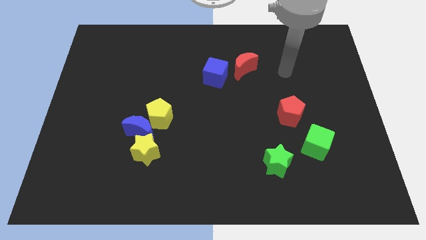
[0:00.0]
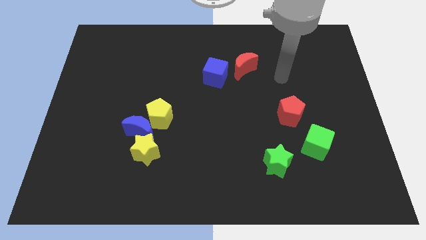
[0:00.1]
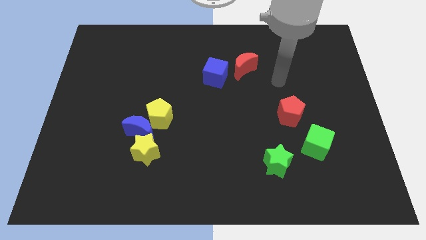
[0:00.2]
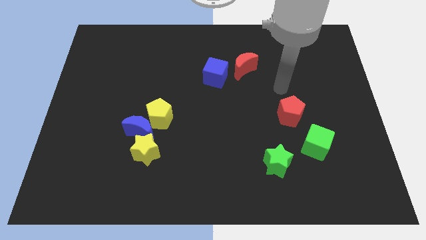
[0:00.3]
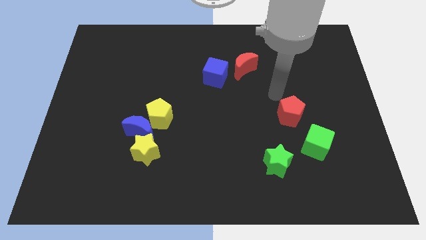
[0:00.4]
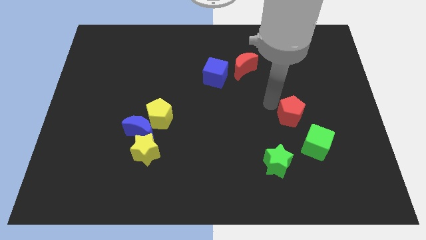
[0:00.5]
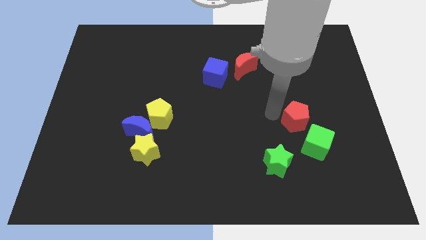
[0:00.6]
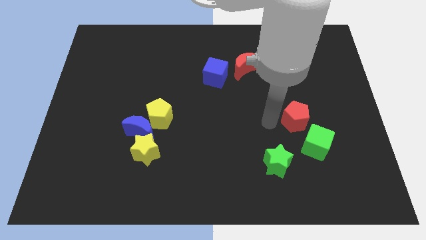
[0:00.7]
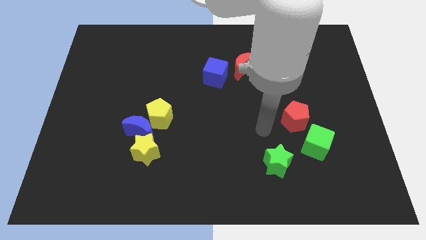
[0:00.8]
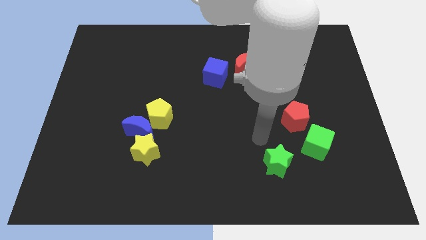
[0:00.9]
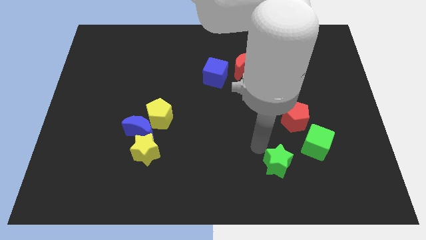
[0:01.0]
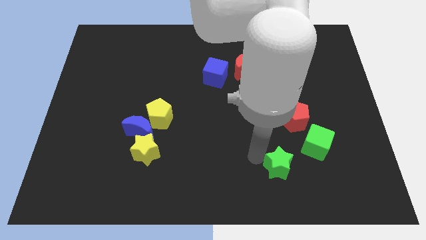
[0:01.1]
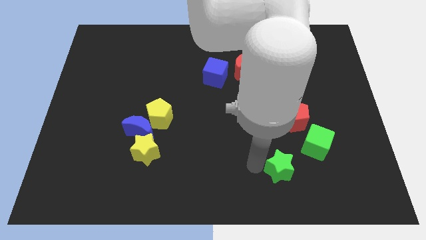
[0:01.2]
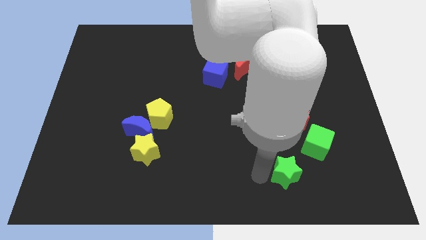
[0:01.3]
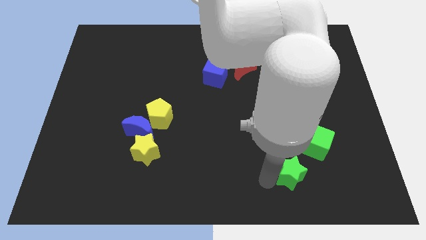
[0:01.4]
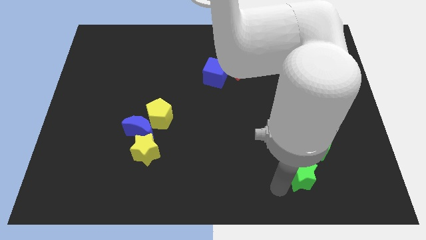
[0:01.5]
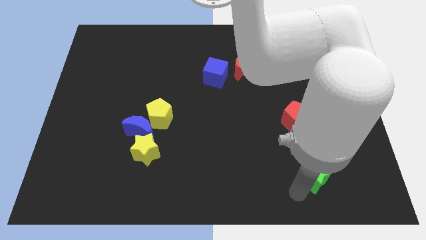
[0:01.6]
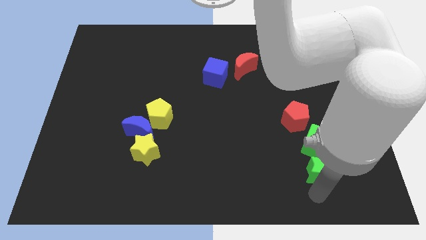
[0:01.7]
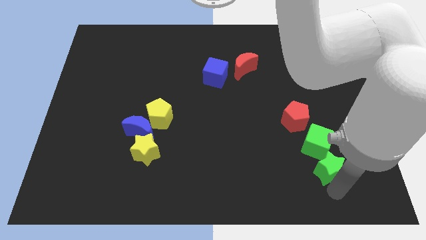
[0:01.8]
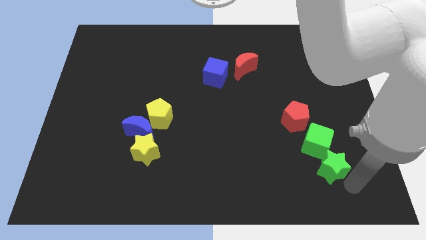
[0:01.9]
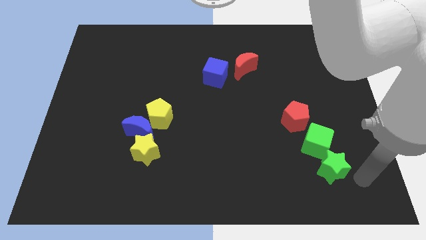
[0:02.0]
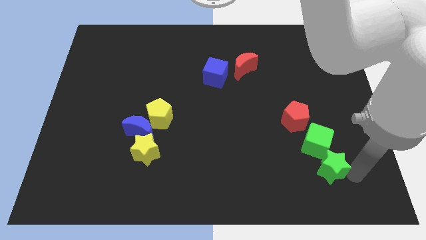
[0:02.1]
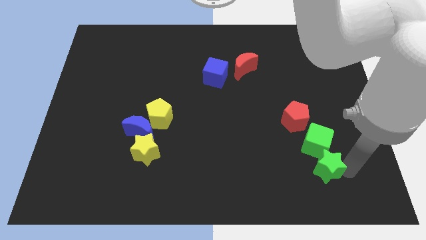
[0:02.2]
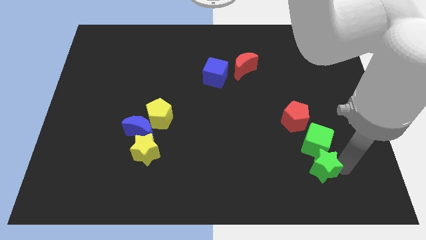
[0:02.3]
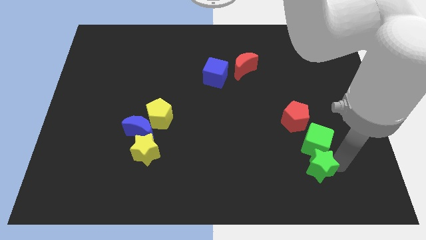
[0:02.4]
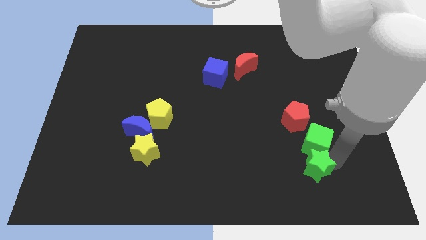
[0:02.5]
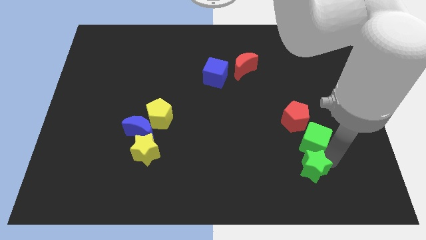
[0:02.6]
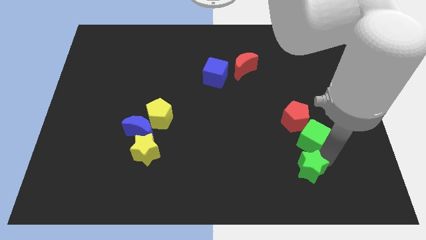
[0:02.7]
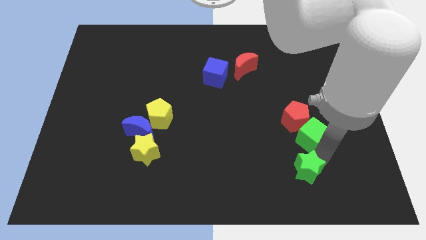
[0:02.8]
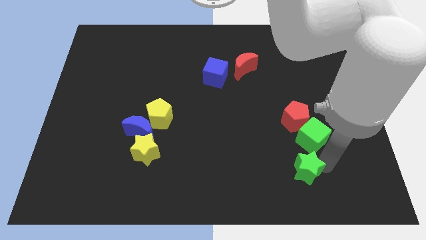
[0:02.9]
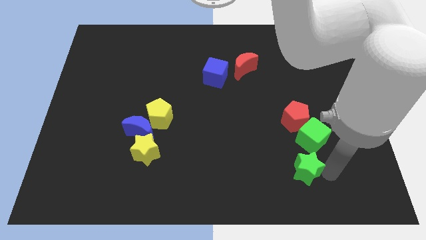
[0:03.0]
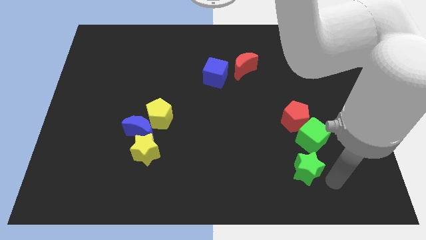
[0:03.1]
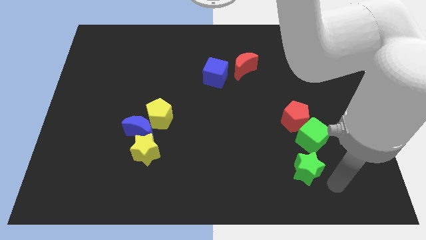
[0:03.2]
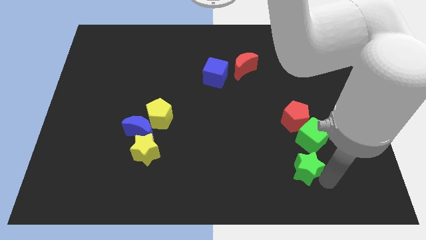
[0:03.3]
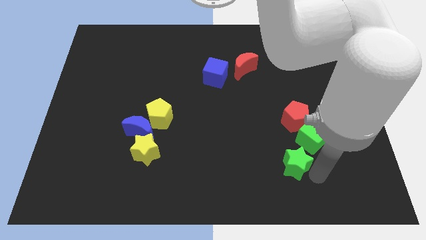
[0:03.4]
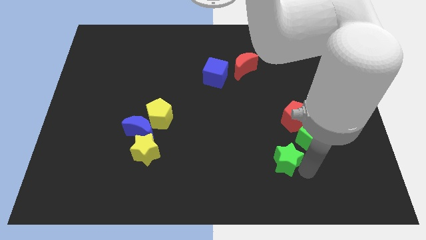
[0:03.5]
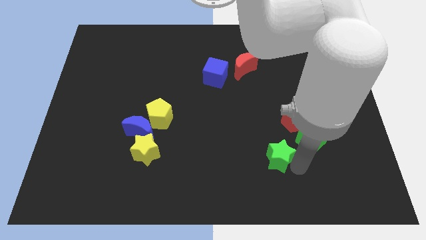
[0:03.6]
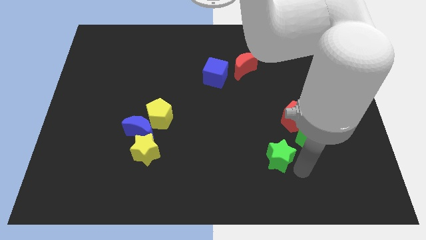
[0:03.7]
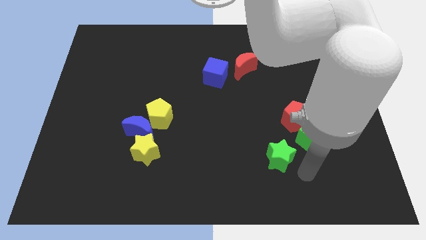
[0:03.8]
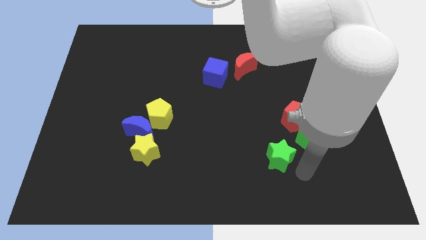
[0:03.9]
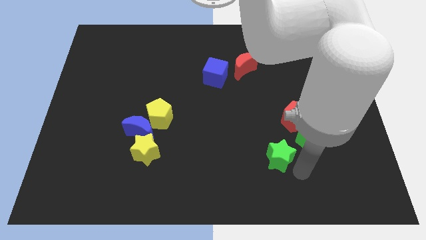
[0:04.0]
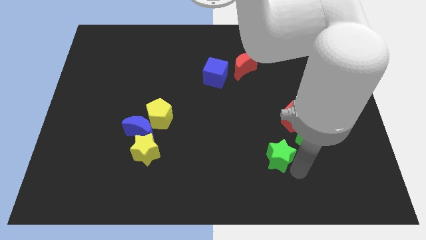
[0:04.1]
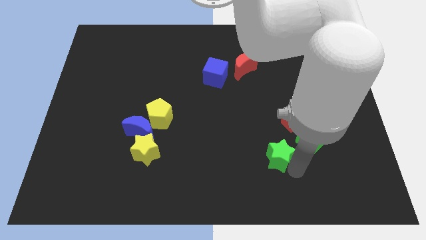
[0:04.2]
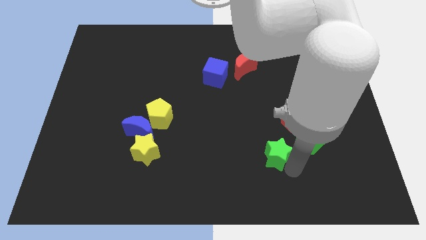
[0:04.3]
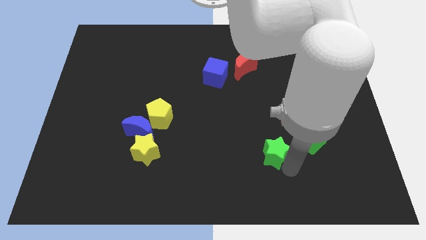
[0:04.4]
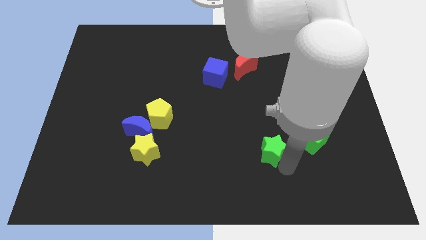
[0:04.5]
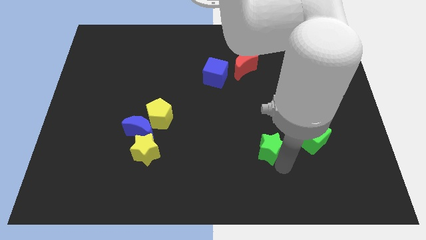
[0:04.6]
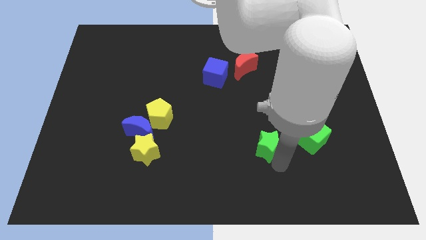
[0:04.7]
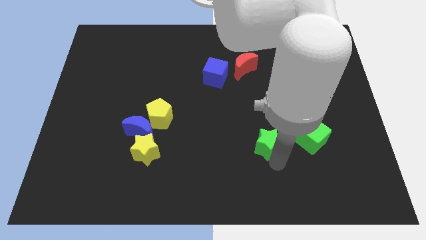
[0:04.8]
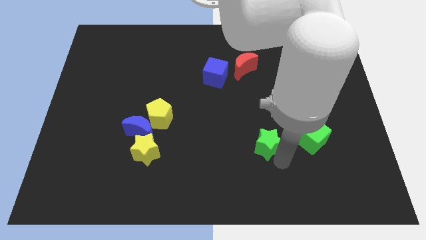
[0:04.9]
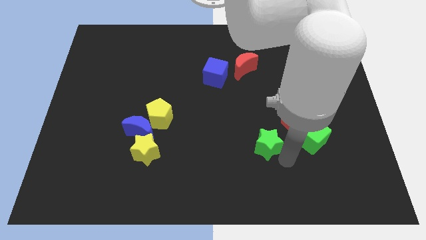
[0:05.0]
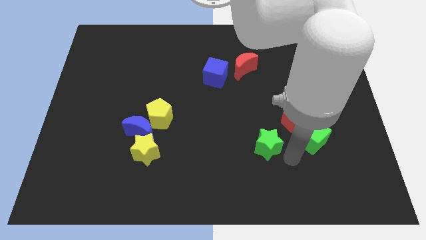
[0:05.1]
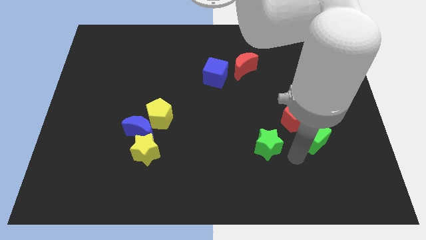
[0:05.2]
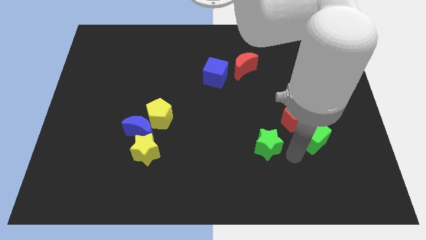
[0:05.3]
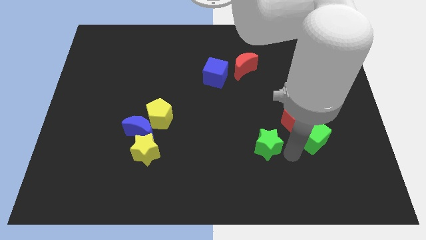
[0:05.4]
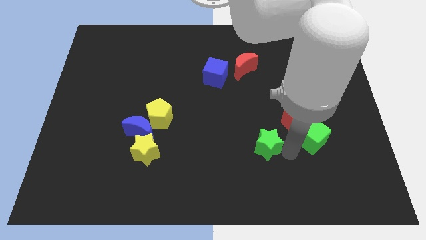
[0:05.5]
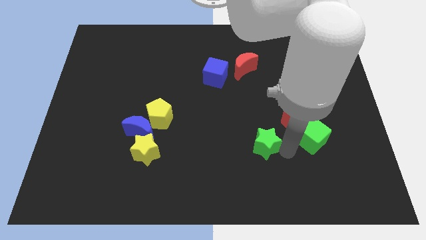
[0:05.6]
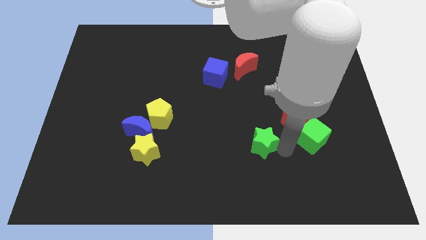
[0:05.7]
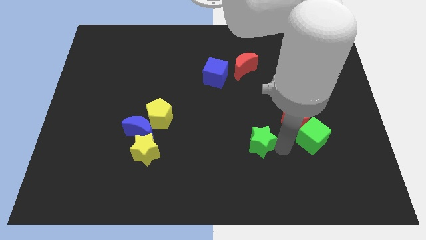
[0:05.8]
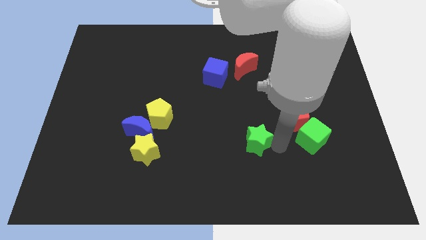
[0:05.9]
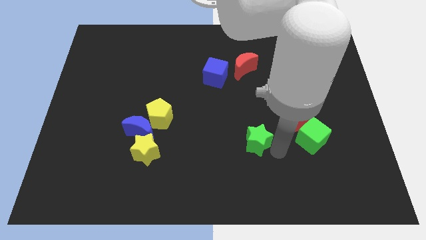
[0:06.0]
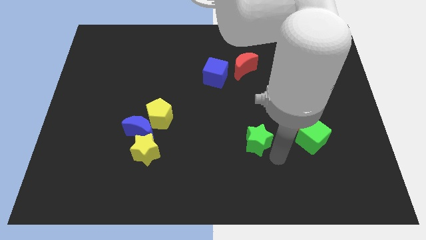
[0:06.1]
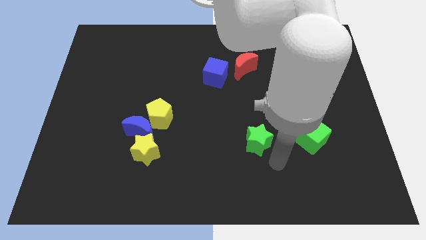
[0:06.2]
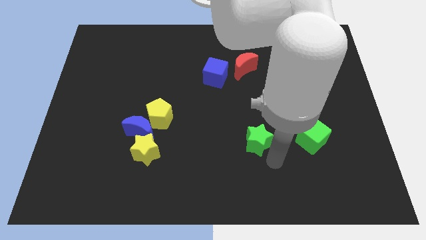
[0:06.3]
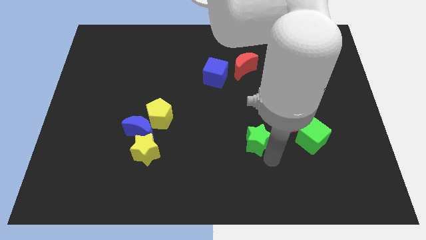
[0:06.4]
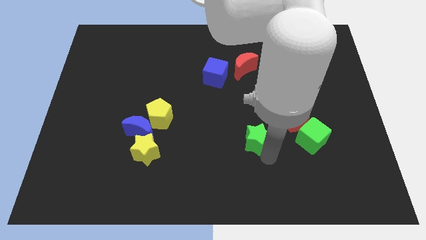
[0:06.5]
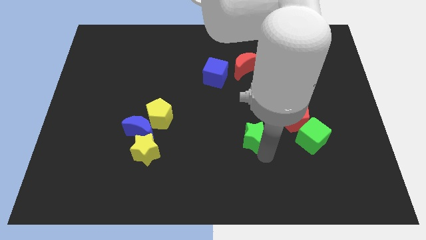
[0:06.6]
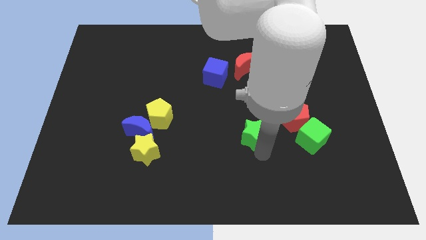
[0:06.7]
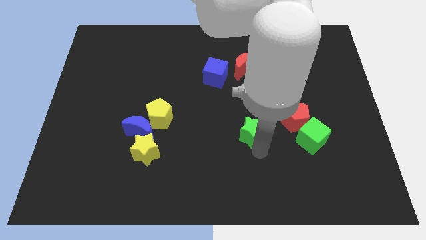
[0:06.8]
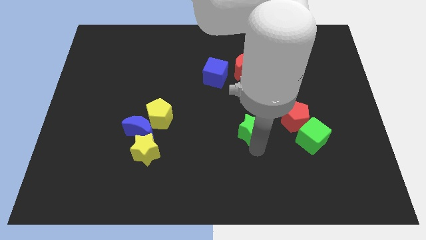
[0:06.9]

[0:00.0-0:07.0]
push the green star to the center of the board

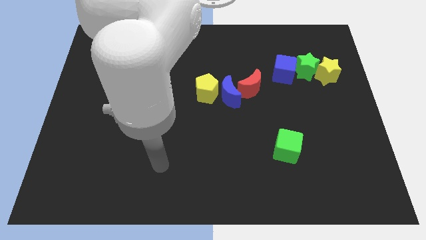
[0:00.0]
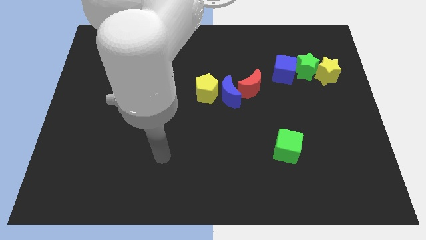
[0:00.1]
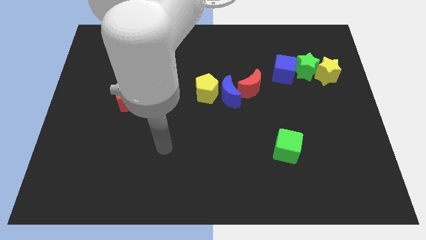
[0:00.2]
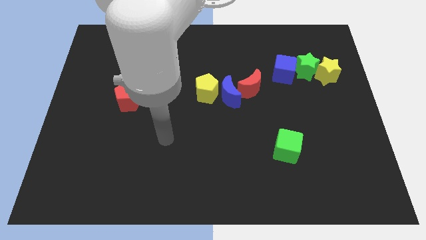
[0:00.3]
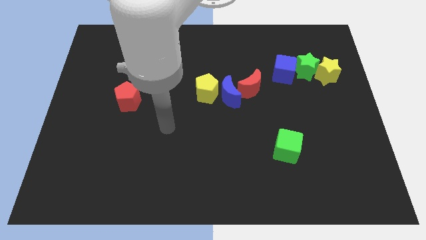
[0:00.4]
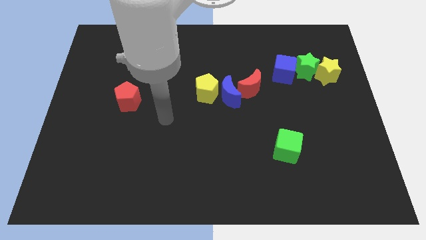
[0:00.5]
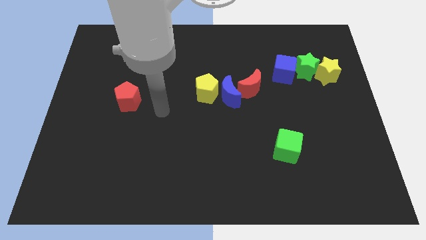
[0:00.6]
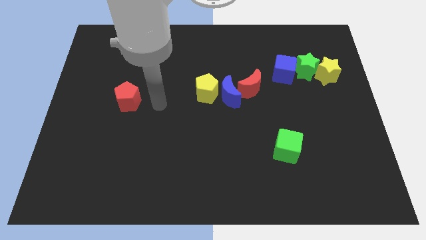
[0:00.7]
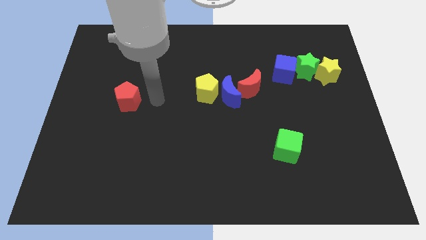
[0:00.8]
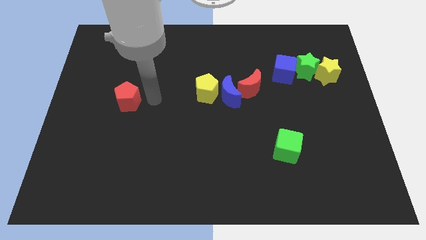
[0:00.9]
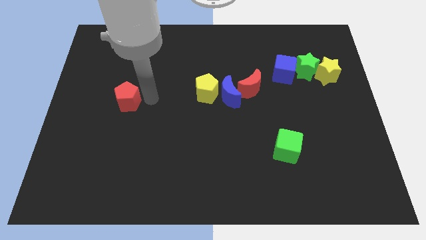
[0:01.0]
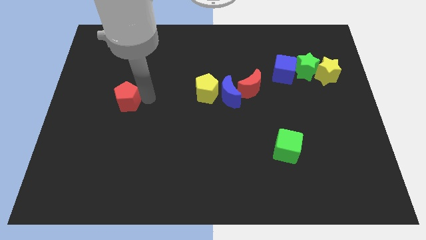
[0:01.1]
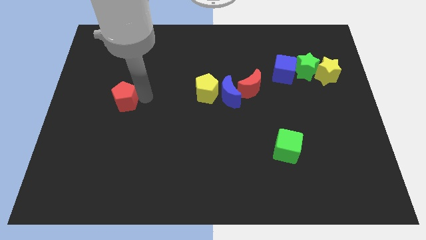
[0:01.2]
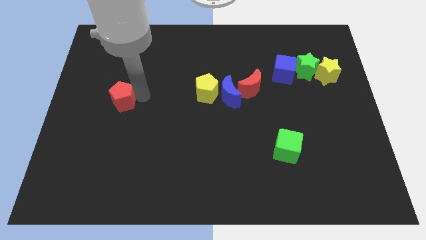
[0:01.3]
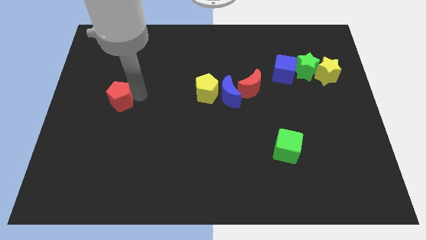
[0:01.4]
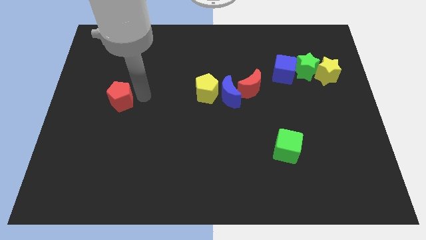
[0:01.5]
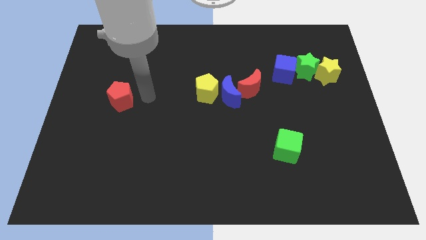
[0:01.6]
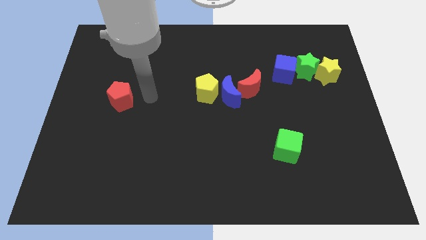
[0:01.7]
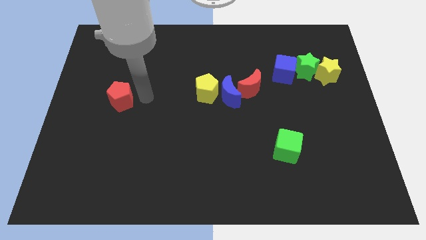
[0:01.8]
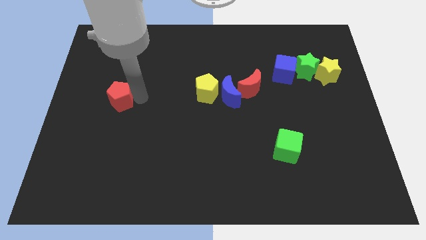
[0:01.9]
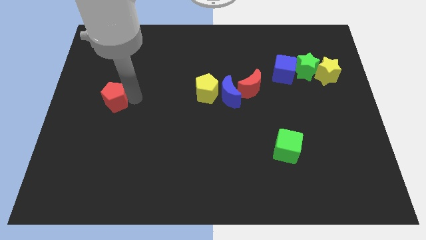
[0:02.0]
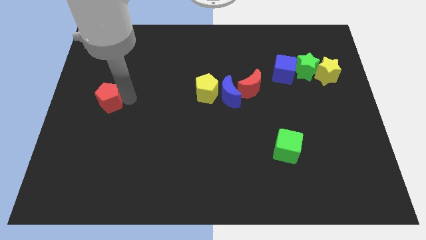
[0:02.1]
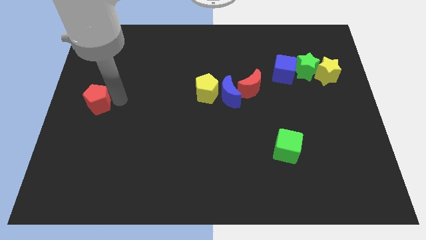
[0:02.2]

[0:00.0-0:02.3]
move the red pentagon to the left side
